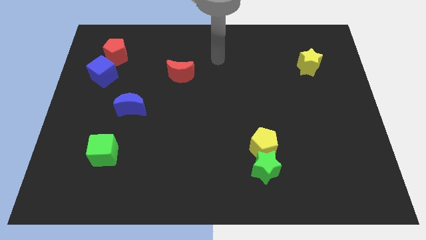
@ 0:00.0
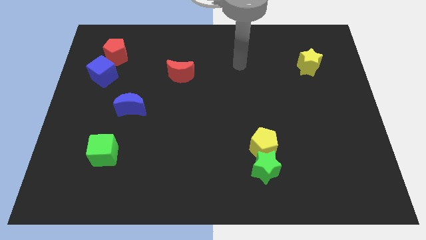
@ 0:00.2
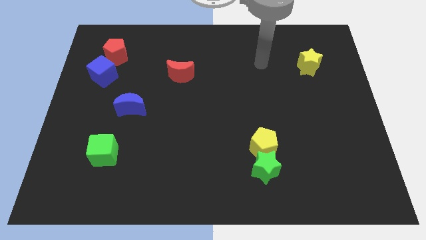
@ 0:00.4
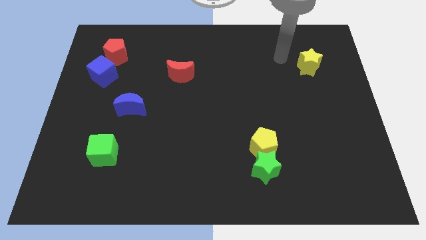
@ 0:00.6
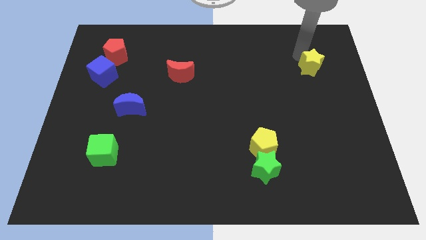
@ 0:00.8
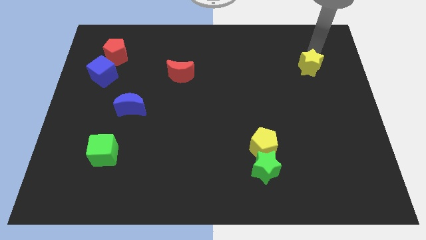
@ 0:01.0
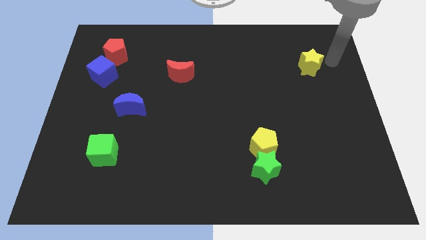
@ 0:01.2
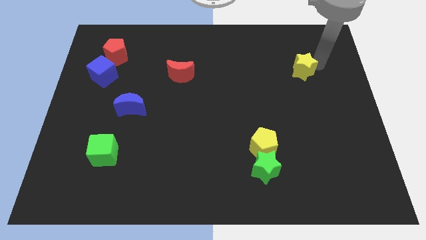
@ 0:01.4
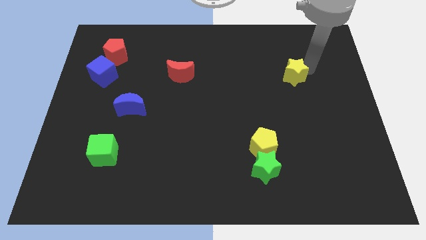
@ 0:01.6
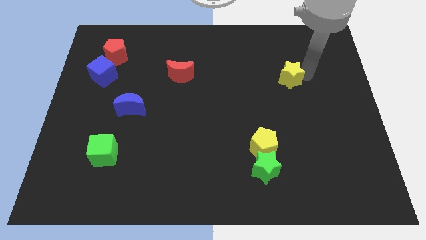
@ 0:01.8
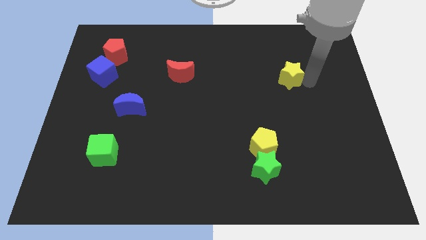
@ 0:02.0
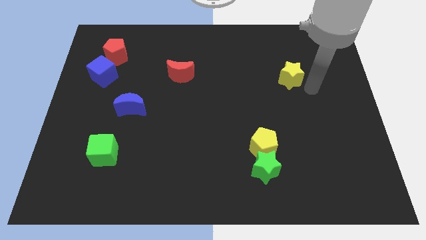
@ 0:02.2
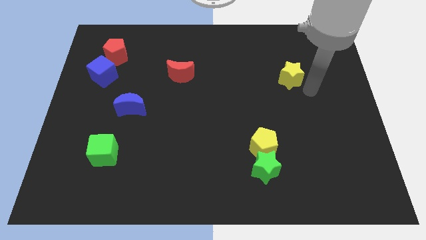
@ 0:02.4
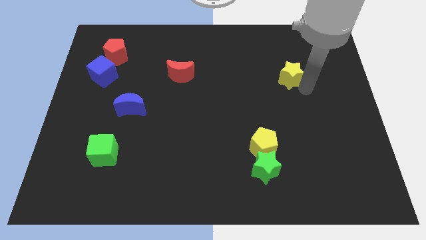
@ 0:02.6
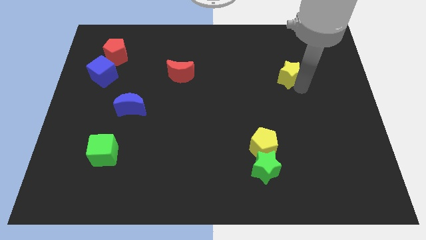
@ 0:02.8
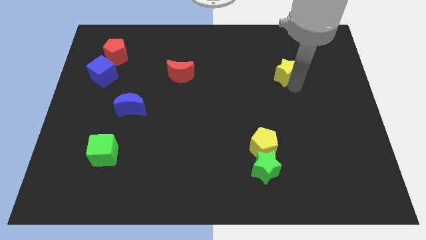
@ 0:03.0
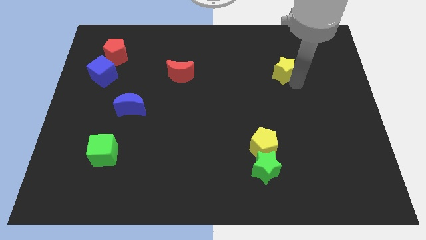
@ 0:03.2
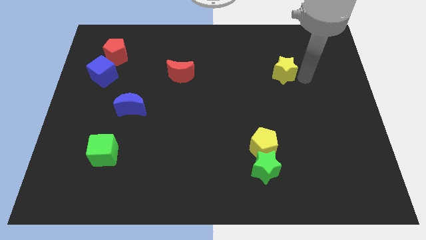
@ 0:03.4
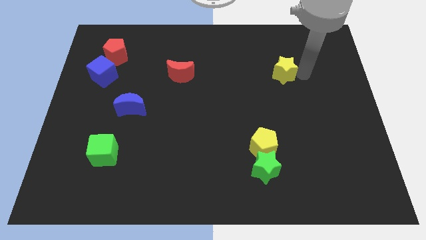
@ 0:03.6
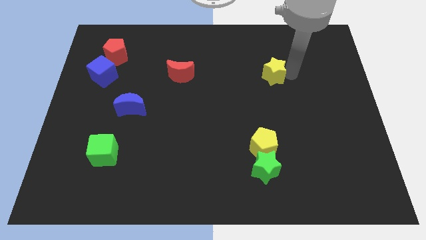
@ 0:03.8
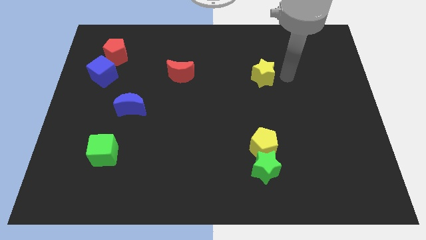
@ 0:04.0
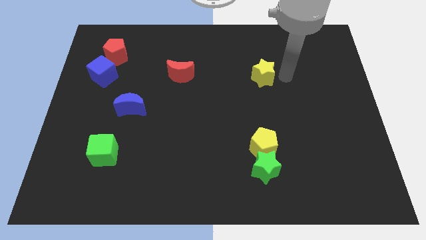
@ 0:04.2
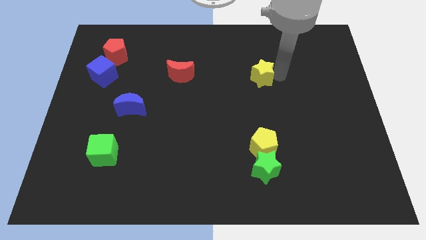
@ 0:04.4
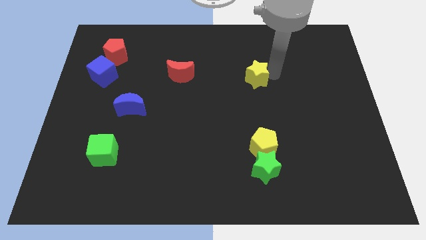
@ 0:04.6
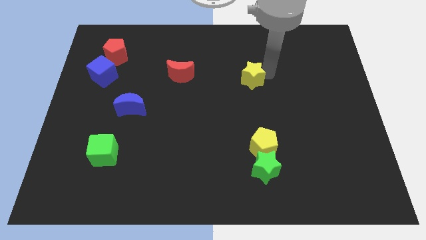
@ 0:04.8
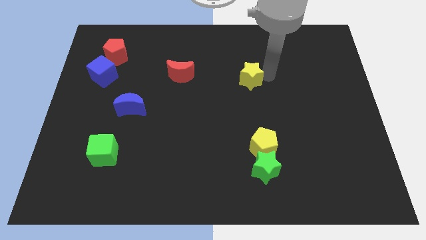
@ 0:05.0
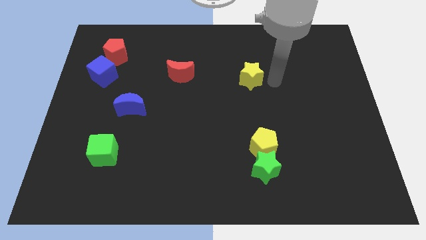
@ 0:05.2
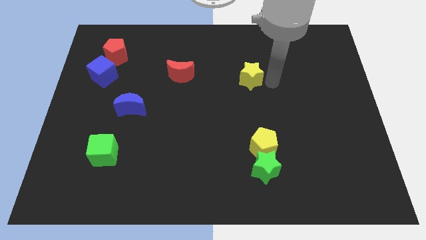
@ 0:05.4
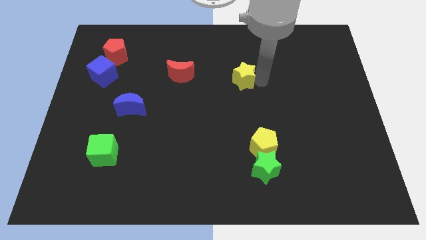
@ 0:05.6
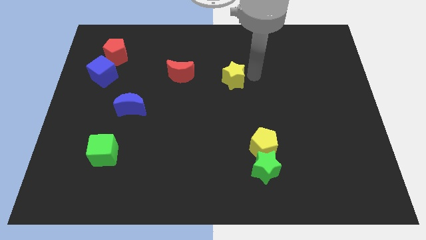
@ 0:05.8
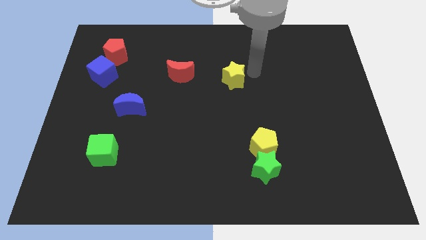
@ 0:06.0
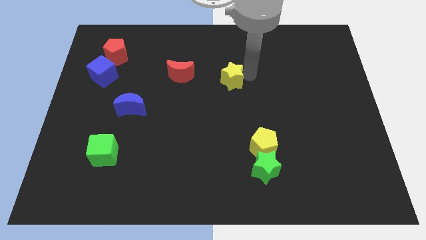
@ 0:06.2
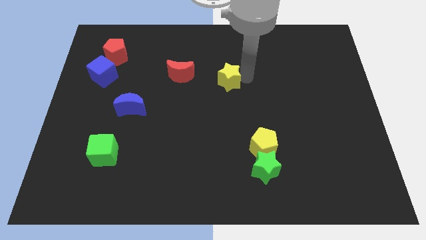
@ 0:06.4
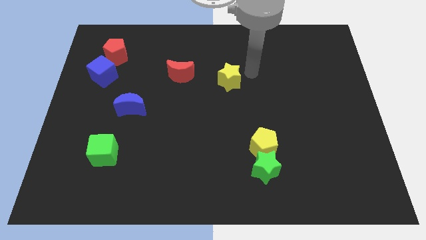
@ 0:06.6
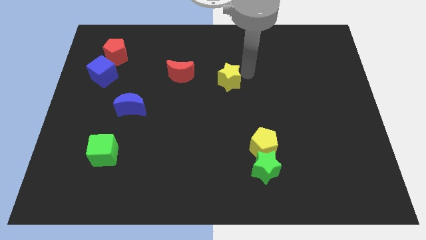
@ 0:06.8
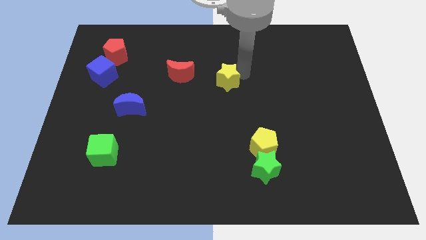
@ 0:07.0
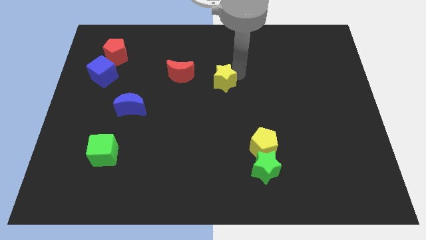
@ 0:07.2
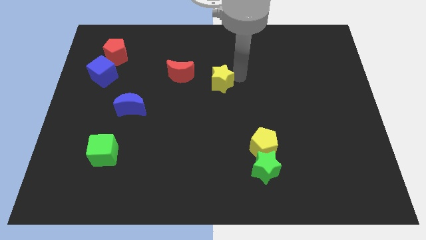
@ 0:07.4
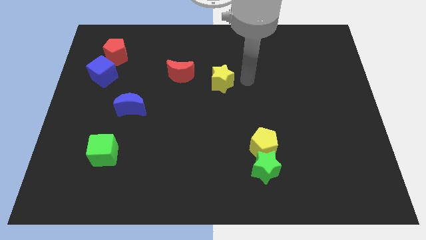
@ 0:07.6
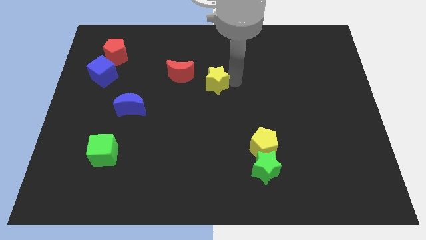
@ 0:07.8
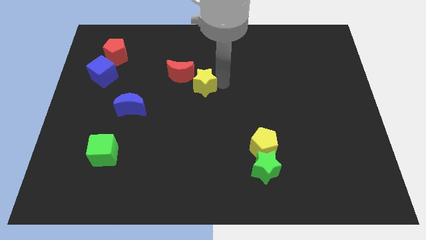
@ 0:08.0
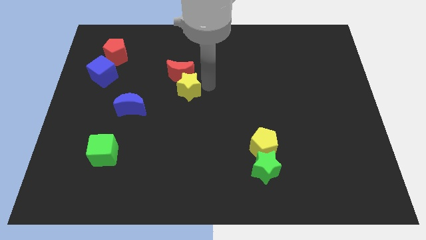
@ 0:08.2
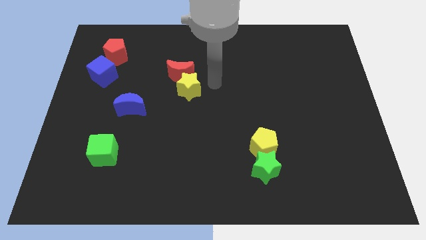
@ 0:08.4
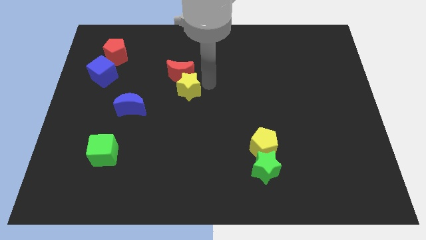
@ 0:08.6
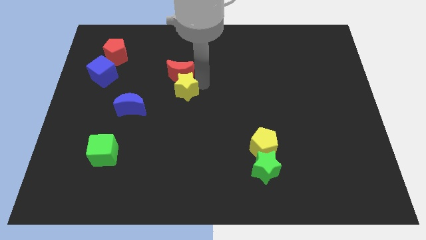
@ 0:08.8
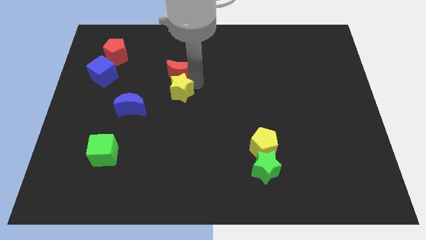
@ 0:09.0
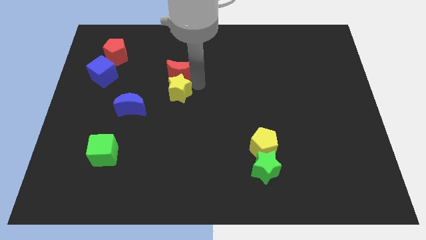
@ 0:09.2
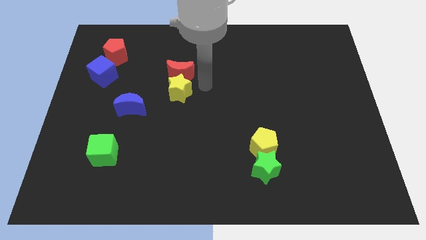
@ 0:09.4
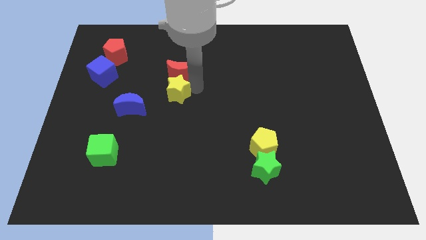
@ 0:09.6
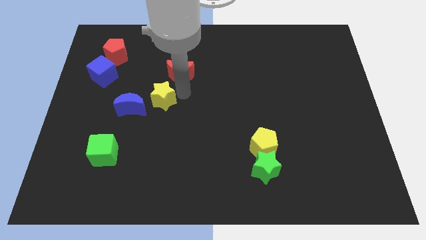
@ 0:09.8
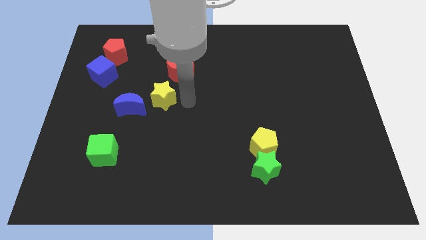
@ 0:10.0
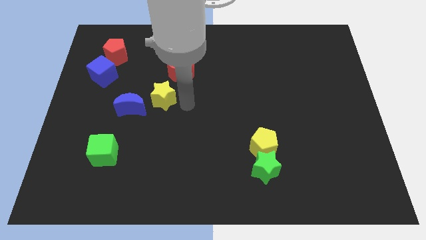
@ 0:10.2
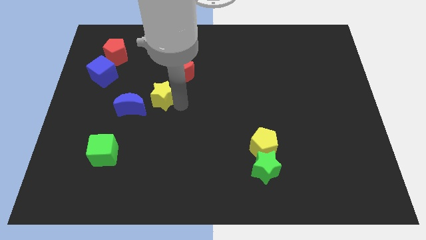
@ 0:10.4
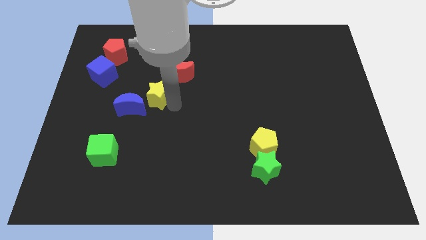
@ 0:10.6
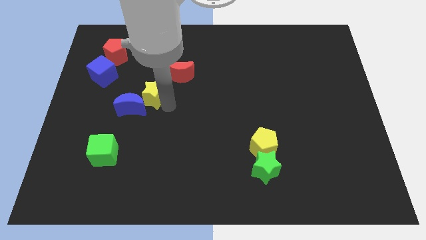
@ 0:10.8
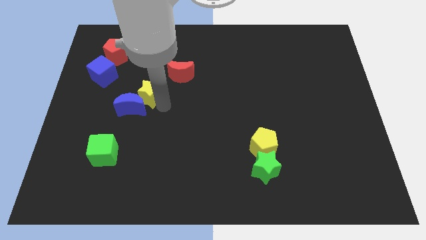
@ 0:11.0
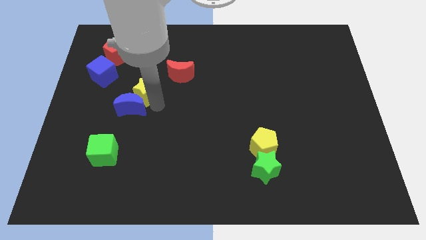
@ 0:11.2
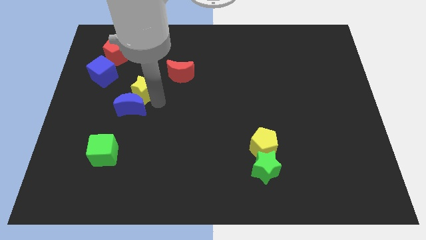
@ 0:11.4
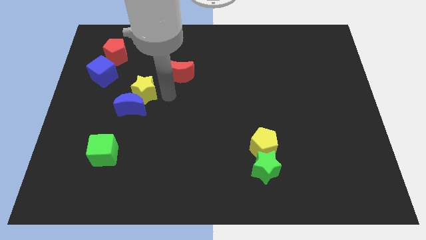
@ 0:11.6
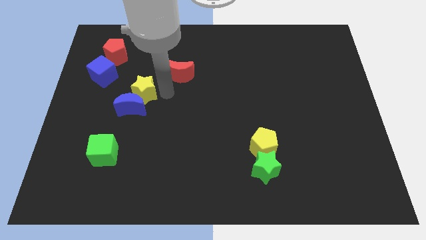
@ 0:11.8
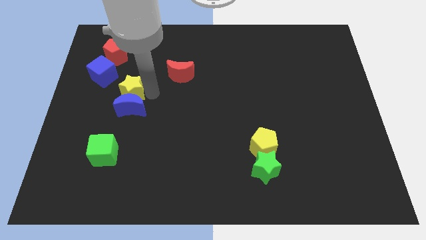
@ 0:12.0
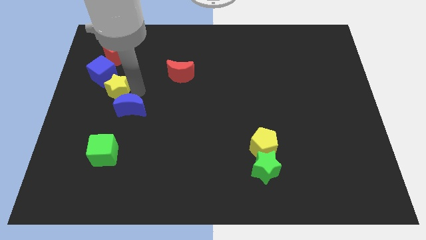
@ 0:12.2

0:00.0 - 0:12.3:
put the yellow star to the bottom of the blue cube

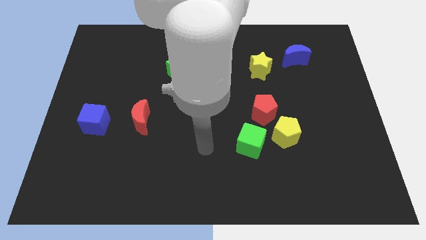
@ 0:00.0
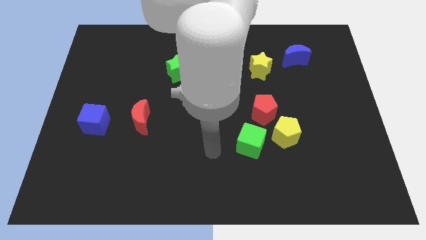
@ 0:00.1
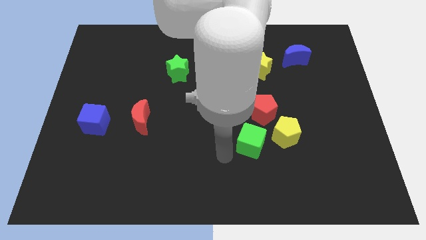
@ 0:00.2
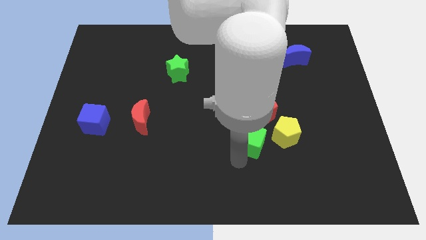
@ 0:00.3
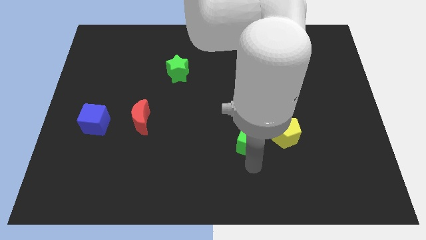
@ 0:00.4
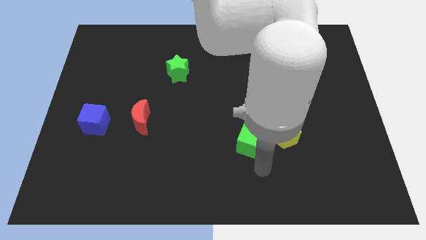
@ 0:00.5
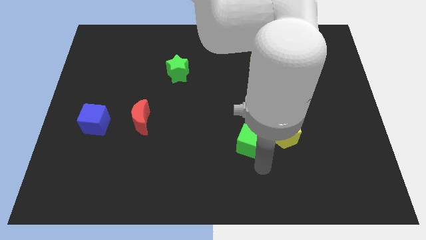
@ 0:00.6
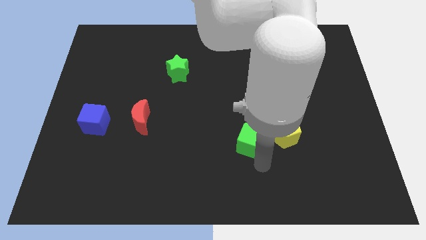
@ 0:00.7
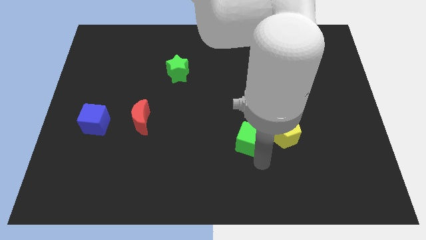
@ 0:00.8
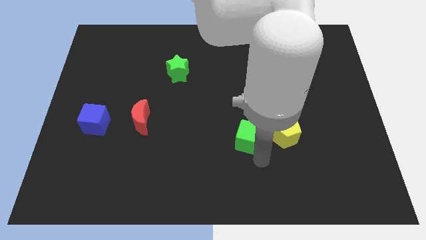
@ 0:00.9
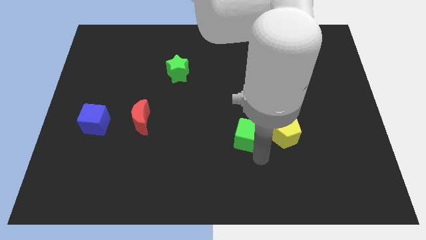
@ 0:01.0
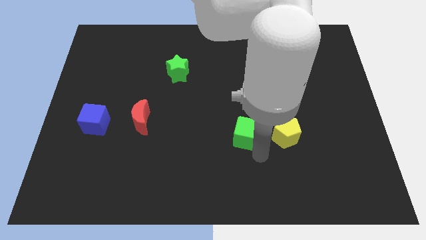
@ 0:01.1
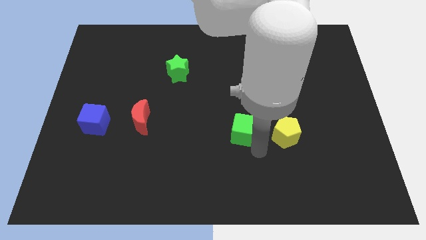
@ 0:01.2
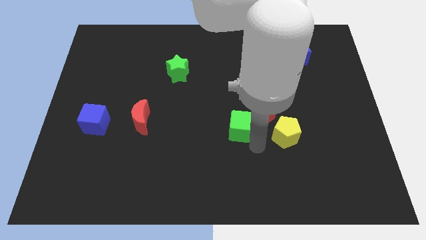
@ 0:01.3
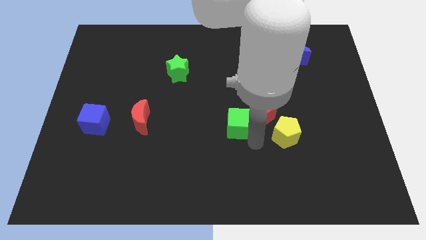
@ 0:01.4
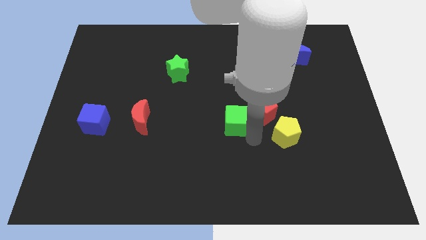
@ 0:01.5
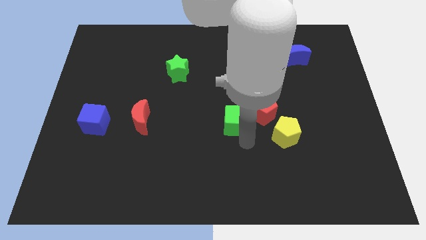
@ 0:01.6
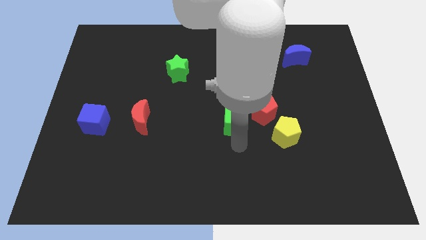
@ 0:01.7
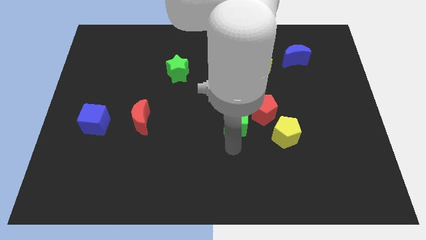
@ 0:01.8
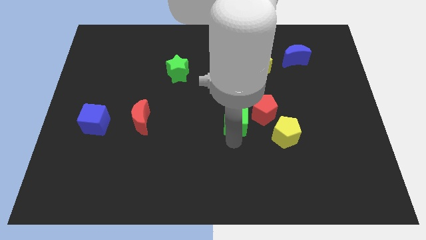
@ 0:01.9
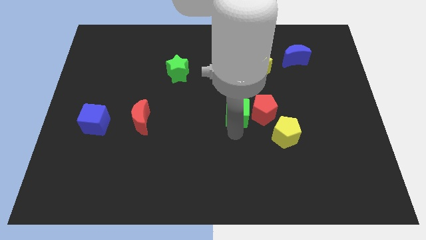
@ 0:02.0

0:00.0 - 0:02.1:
slide the green cube to the top left side of the red pentagon
